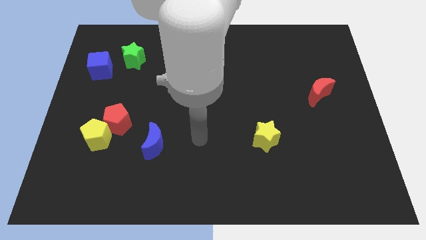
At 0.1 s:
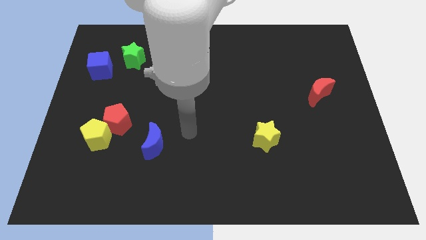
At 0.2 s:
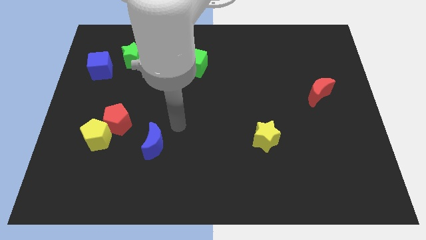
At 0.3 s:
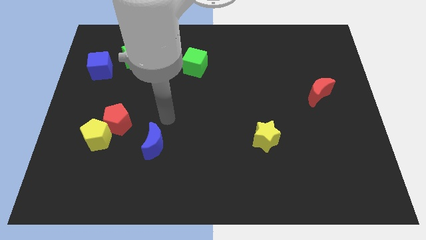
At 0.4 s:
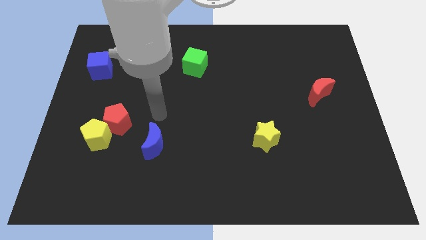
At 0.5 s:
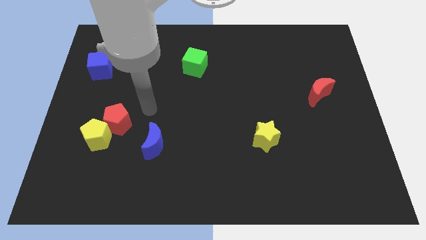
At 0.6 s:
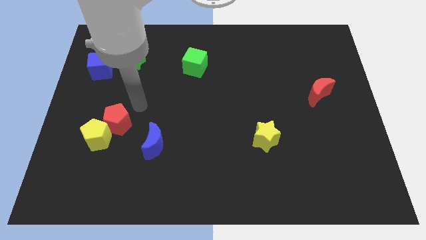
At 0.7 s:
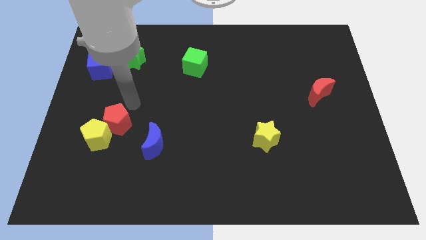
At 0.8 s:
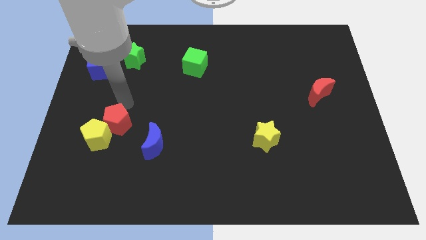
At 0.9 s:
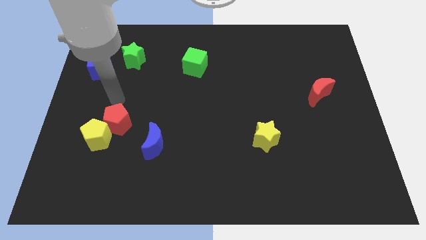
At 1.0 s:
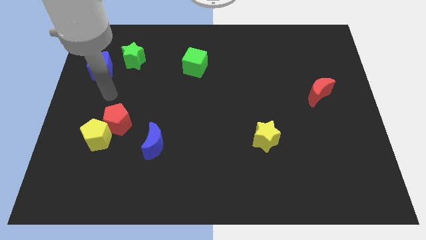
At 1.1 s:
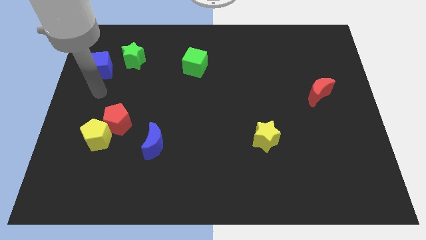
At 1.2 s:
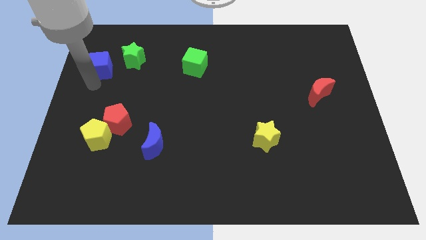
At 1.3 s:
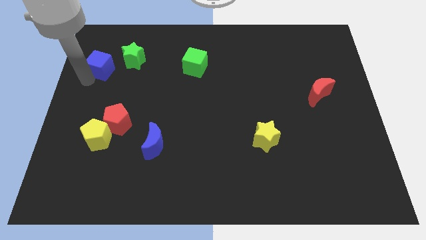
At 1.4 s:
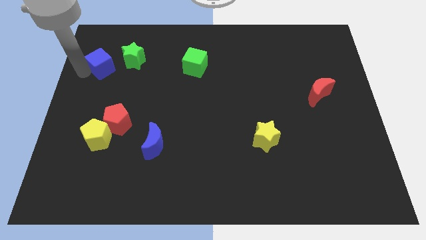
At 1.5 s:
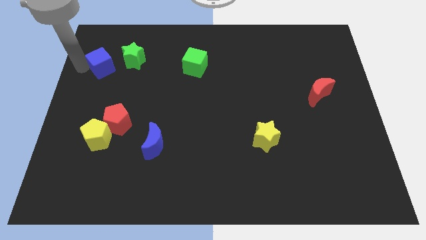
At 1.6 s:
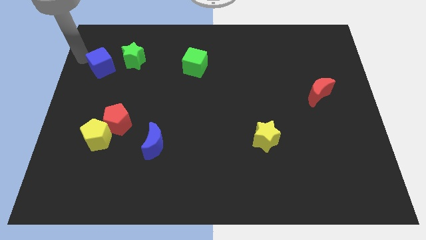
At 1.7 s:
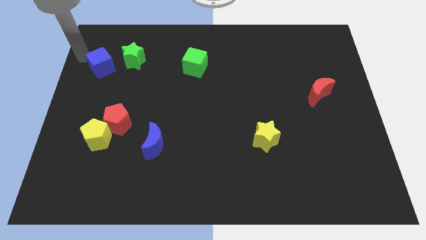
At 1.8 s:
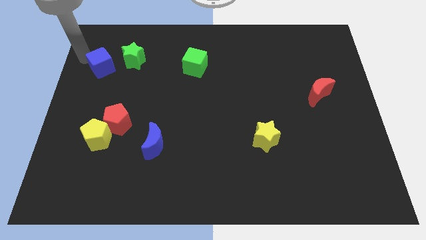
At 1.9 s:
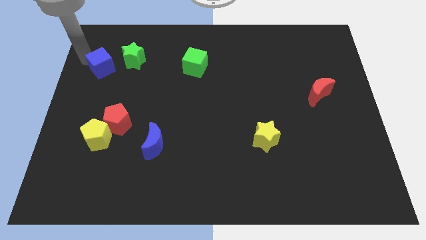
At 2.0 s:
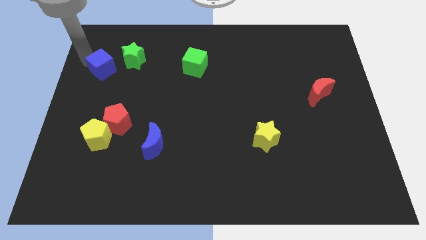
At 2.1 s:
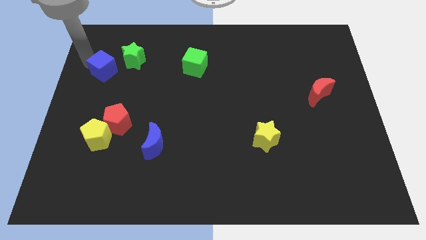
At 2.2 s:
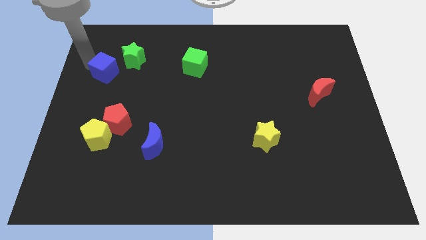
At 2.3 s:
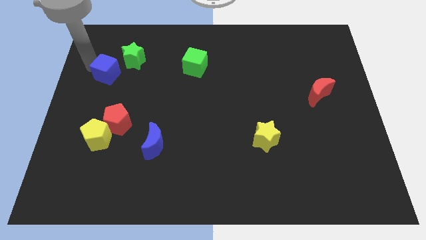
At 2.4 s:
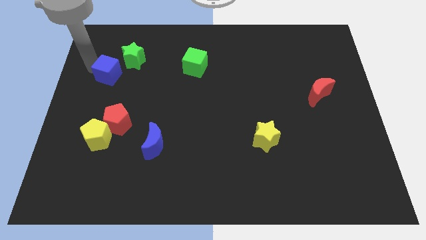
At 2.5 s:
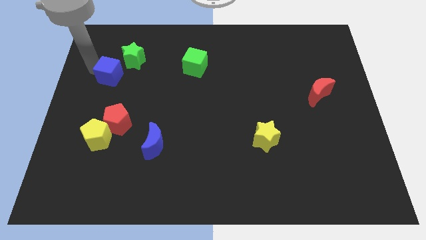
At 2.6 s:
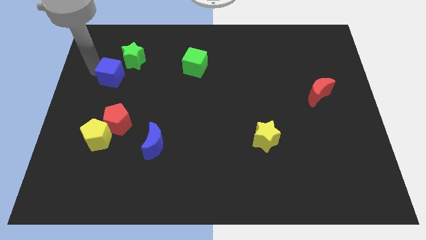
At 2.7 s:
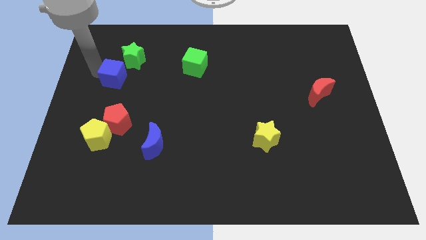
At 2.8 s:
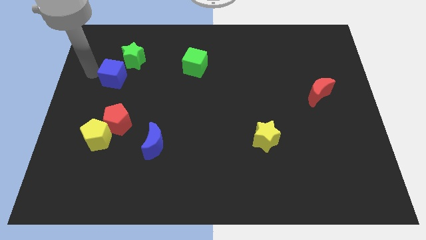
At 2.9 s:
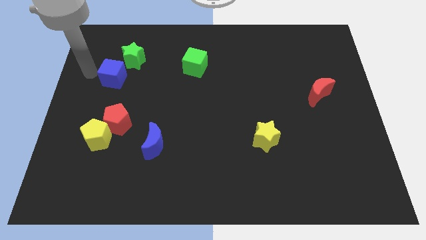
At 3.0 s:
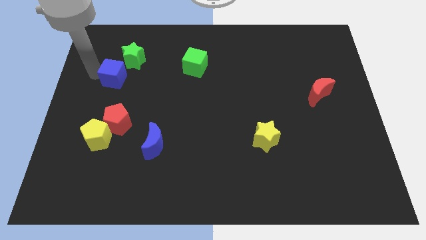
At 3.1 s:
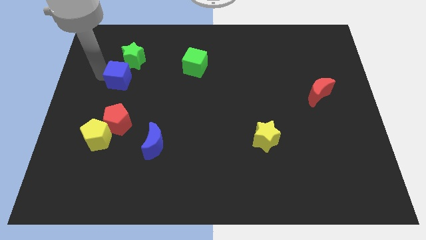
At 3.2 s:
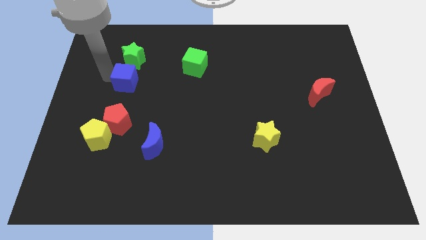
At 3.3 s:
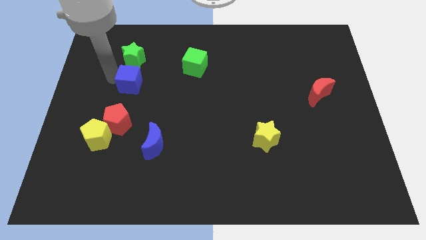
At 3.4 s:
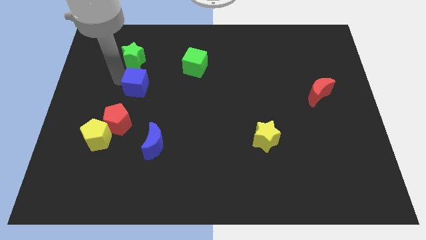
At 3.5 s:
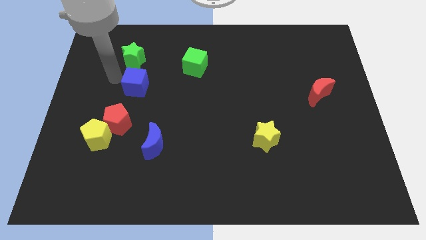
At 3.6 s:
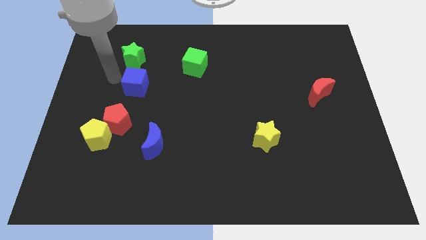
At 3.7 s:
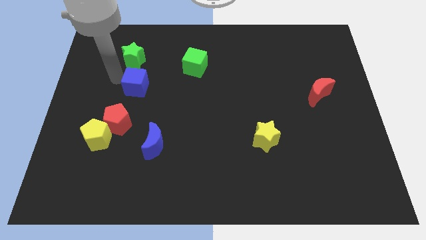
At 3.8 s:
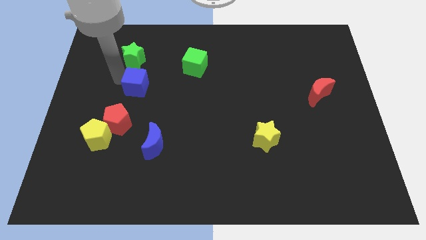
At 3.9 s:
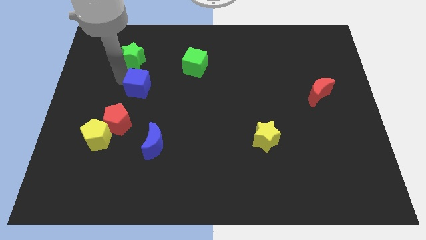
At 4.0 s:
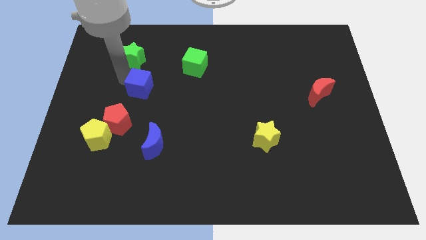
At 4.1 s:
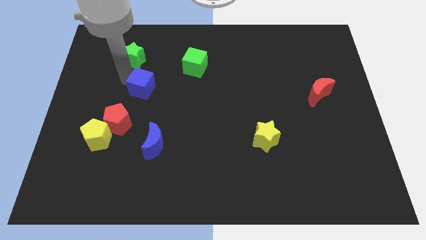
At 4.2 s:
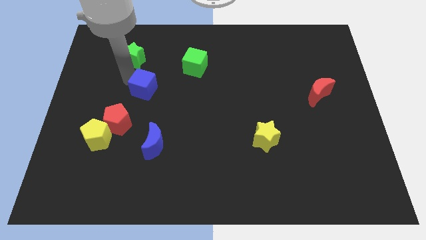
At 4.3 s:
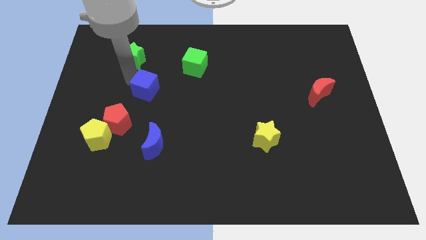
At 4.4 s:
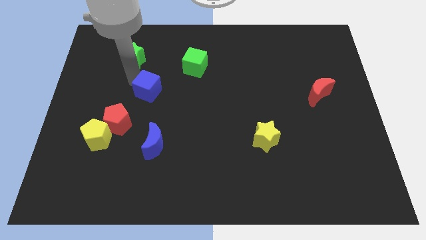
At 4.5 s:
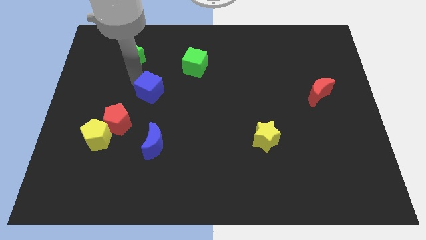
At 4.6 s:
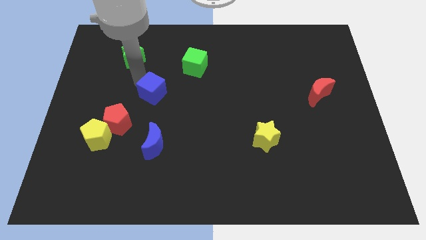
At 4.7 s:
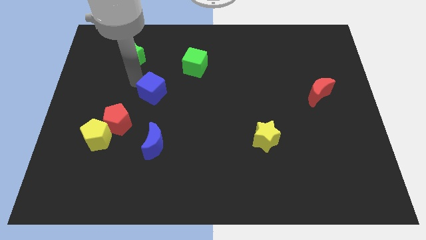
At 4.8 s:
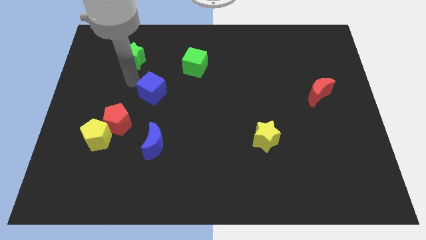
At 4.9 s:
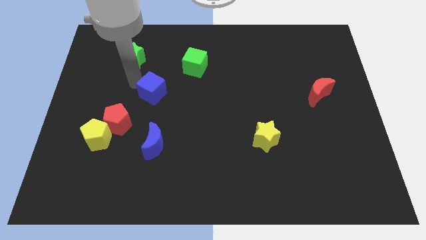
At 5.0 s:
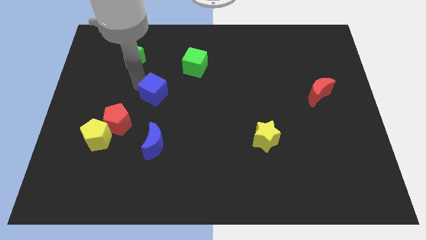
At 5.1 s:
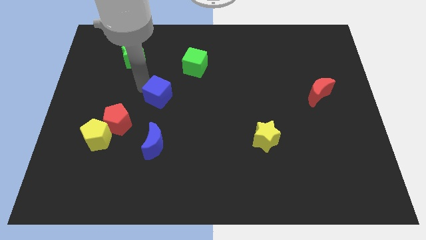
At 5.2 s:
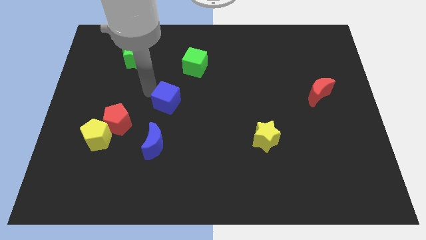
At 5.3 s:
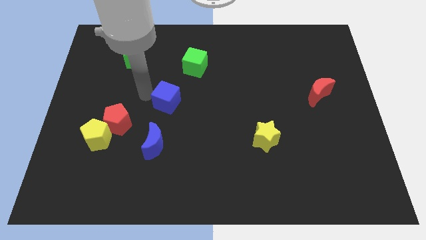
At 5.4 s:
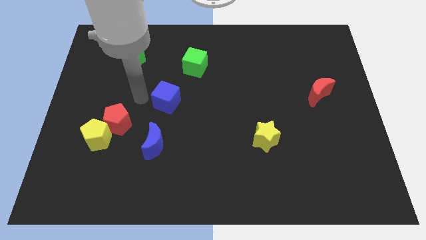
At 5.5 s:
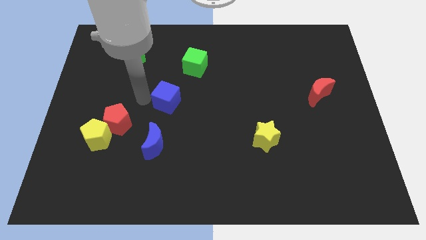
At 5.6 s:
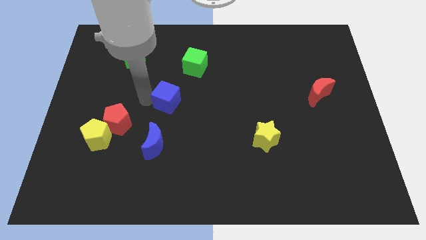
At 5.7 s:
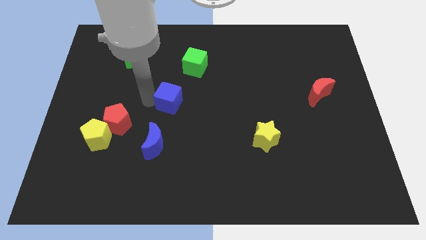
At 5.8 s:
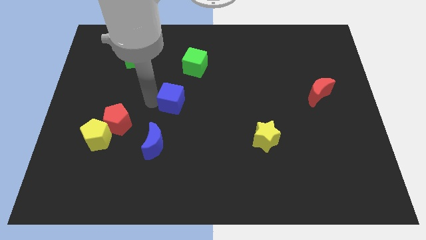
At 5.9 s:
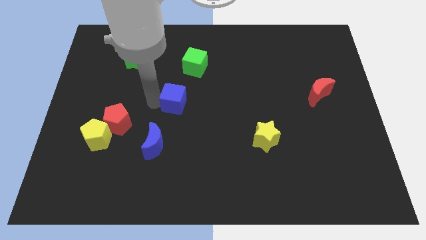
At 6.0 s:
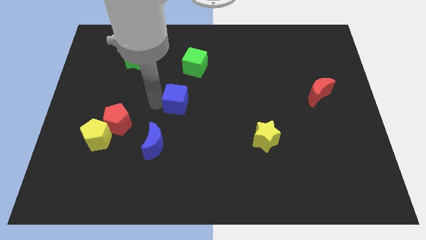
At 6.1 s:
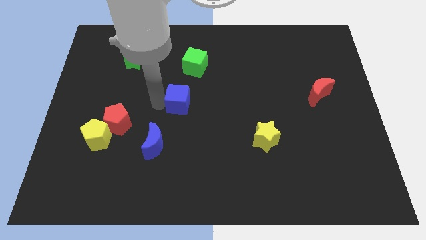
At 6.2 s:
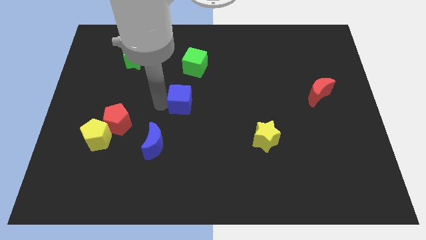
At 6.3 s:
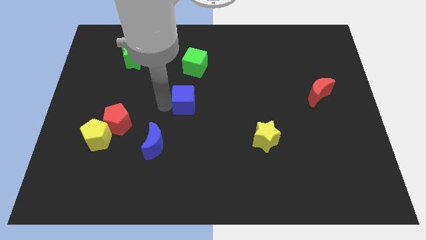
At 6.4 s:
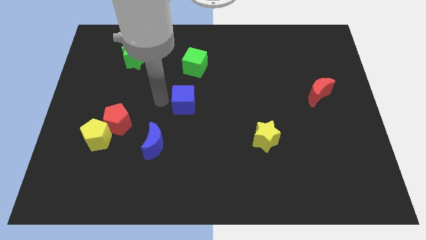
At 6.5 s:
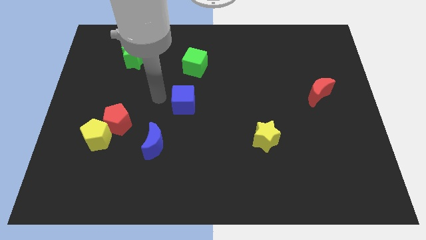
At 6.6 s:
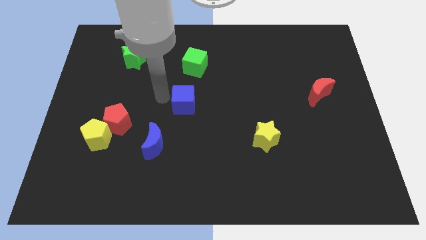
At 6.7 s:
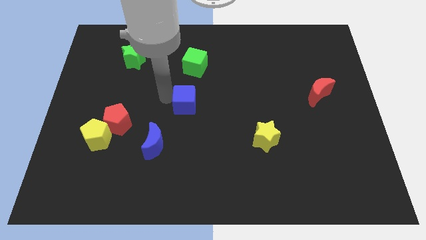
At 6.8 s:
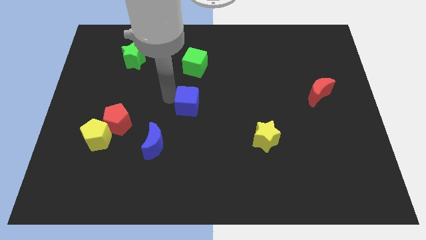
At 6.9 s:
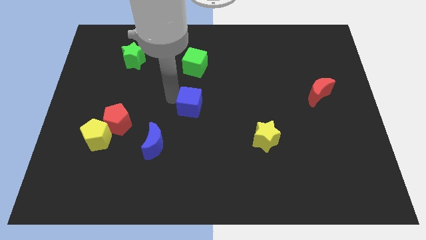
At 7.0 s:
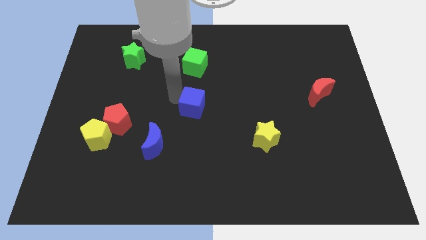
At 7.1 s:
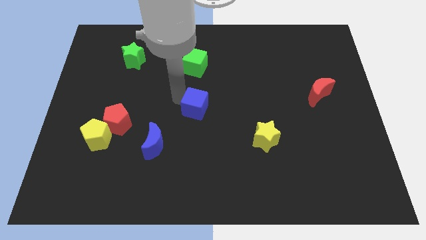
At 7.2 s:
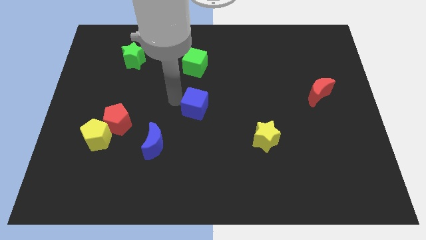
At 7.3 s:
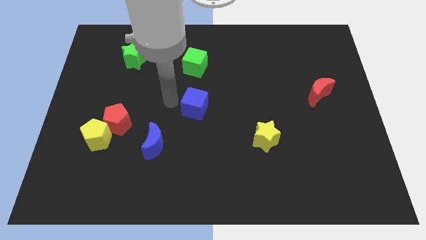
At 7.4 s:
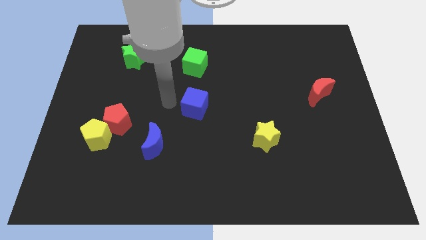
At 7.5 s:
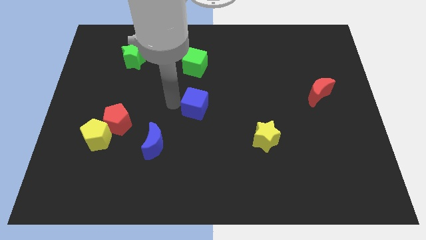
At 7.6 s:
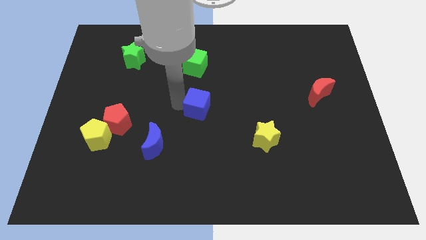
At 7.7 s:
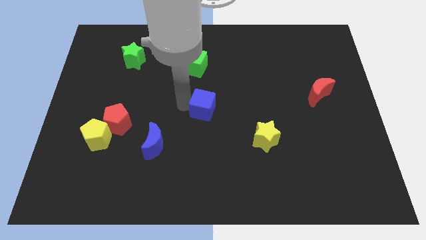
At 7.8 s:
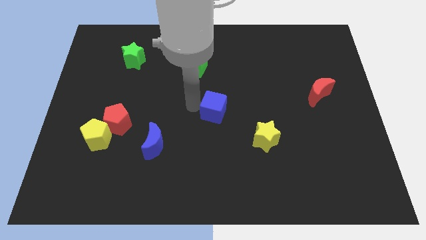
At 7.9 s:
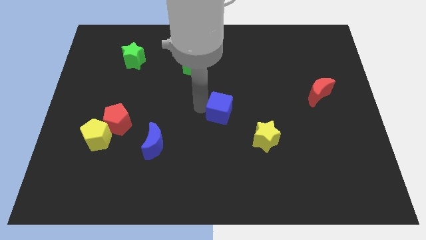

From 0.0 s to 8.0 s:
put the blue cube to the top left of the yellow star
